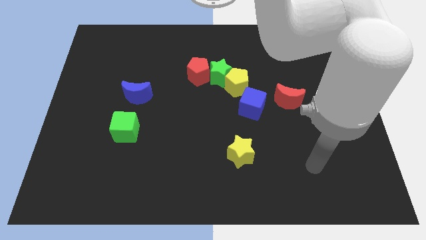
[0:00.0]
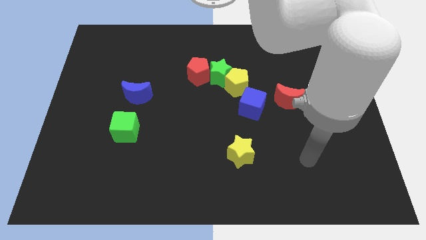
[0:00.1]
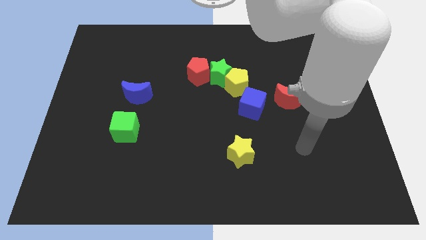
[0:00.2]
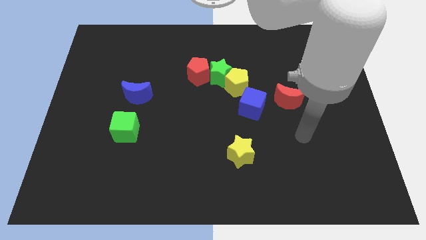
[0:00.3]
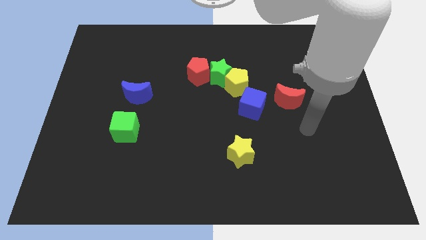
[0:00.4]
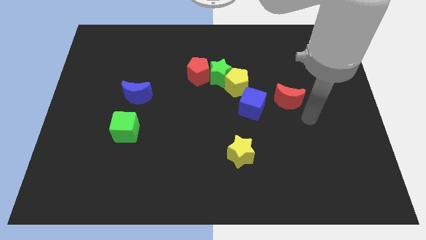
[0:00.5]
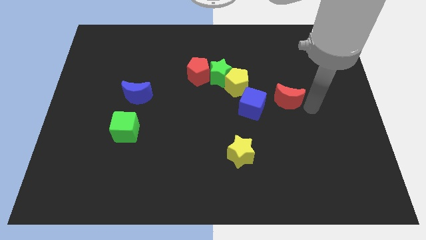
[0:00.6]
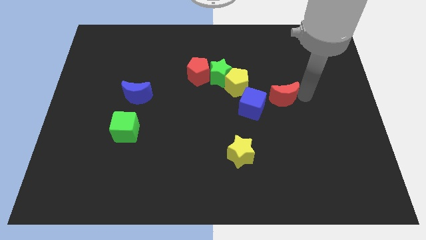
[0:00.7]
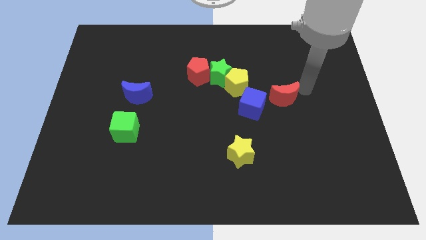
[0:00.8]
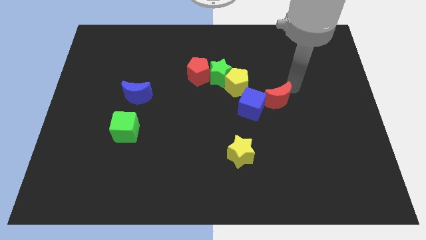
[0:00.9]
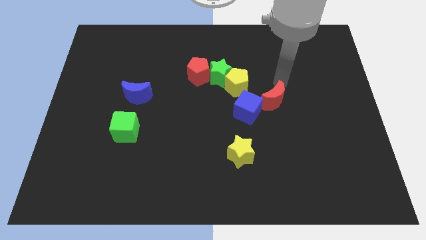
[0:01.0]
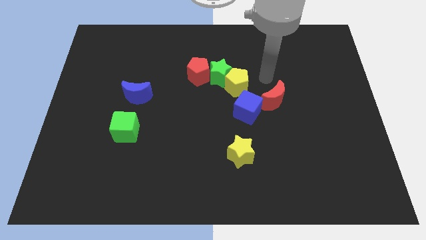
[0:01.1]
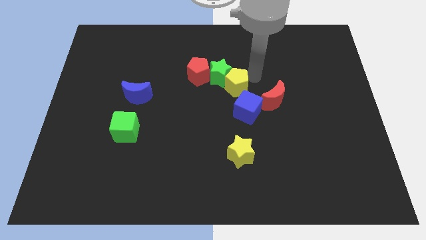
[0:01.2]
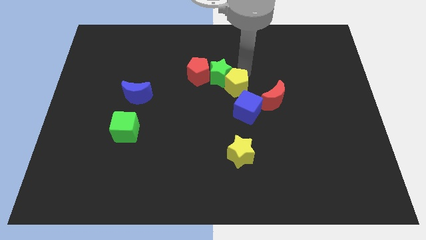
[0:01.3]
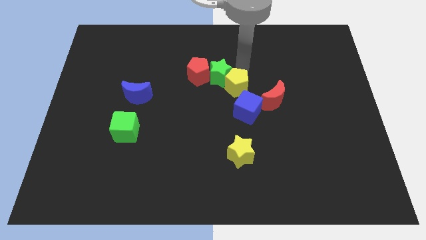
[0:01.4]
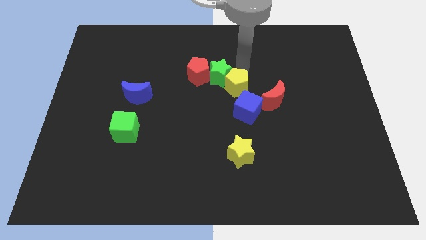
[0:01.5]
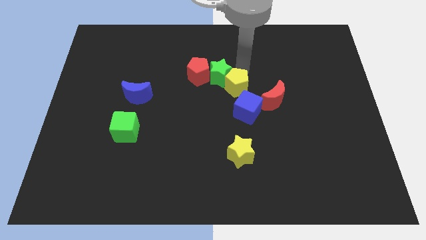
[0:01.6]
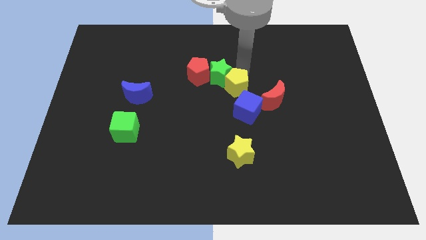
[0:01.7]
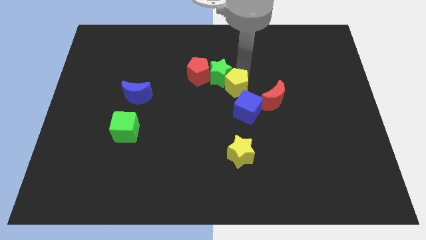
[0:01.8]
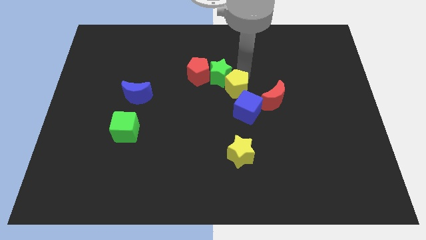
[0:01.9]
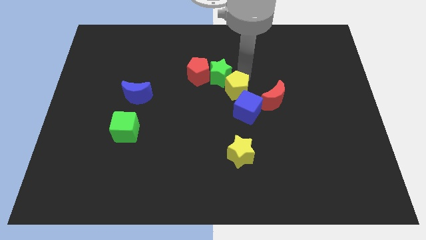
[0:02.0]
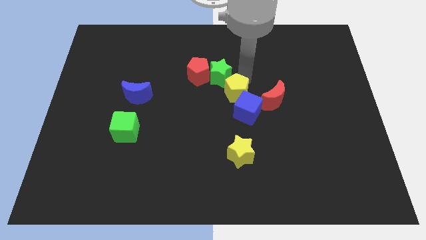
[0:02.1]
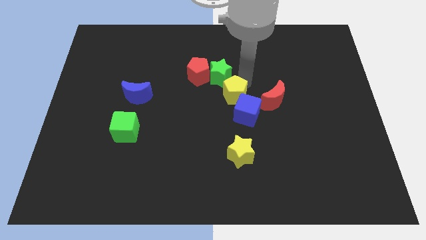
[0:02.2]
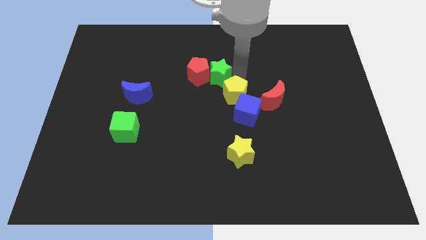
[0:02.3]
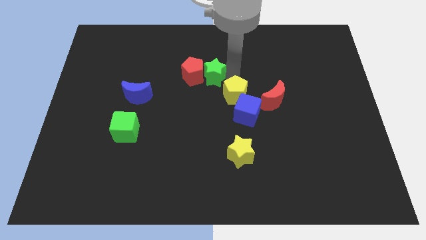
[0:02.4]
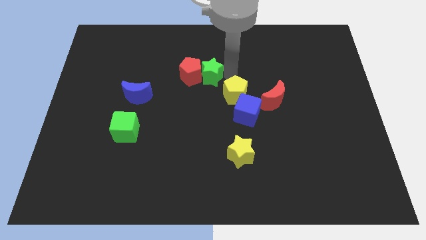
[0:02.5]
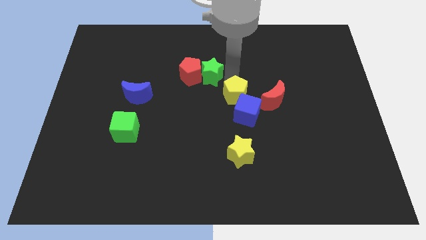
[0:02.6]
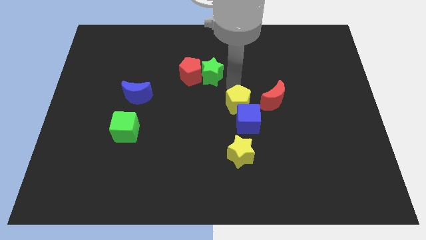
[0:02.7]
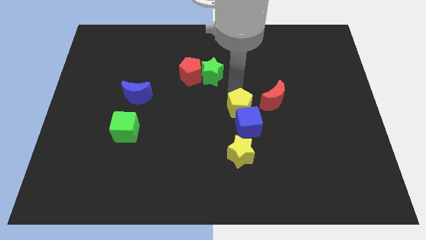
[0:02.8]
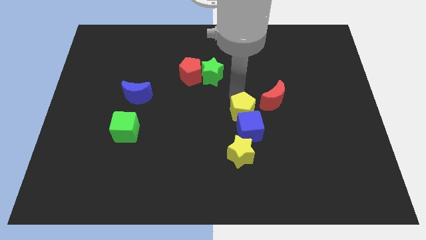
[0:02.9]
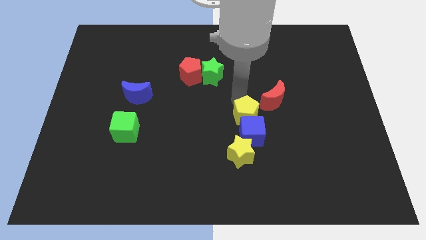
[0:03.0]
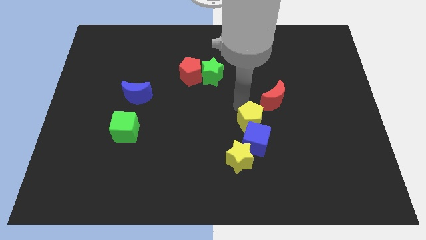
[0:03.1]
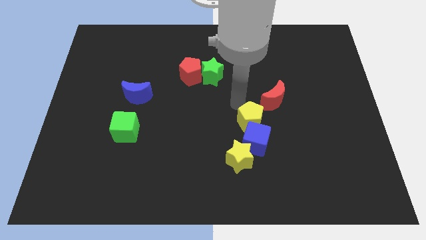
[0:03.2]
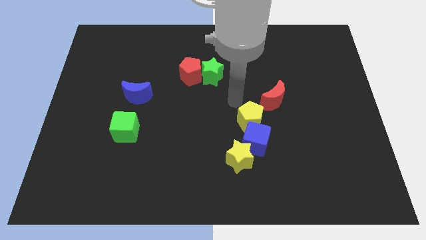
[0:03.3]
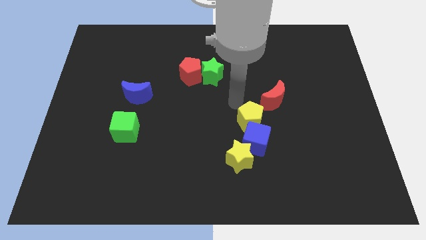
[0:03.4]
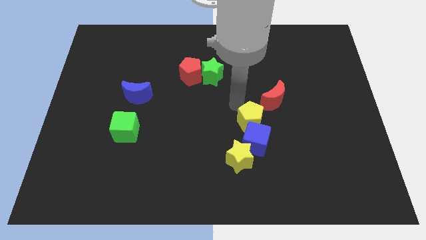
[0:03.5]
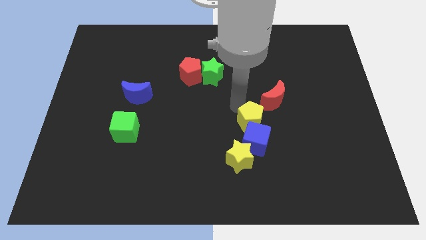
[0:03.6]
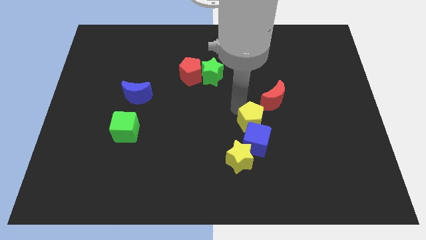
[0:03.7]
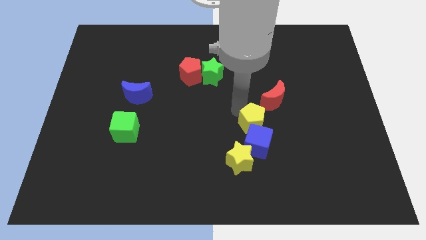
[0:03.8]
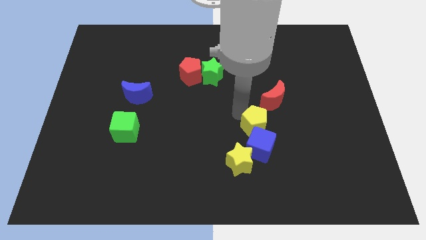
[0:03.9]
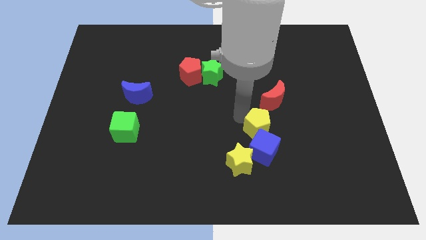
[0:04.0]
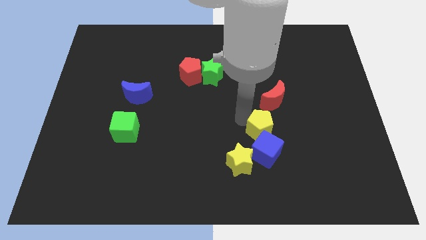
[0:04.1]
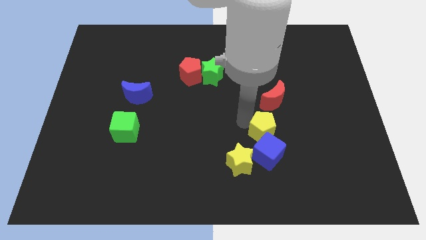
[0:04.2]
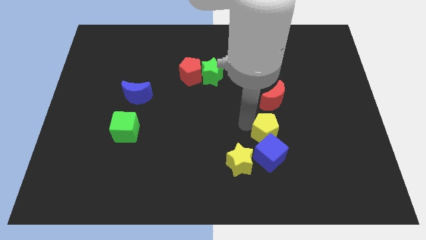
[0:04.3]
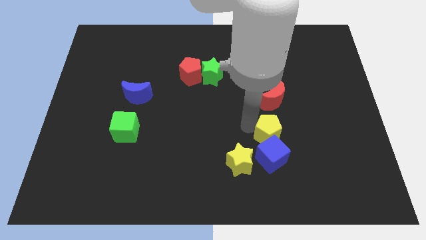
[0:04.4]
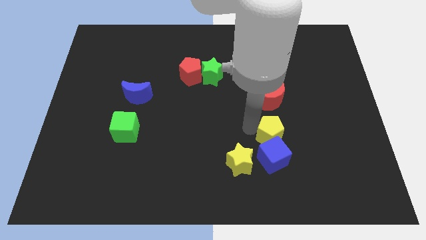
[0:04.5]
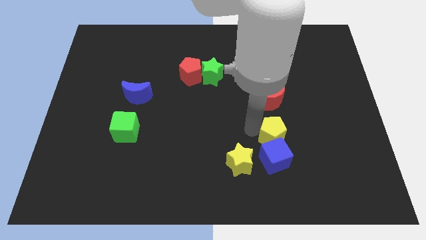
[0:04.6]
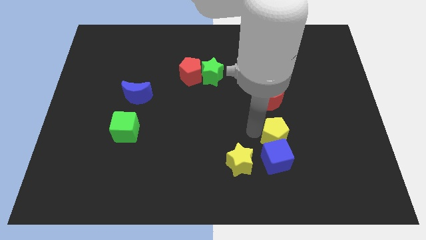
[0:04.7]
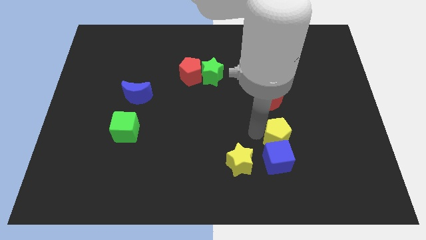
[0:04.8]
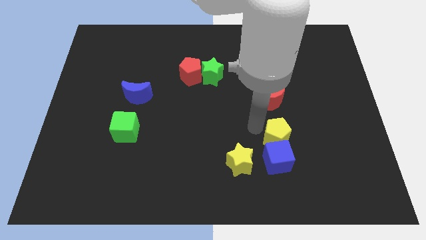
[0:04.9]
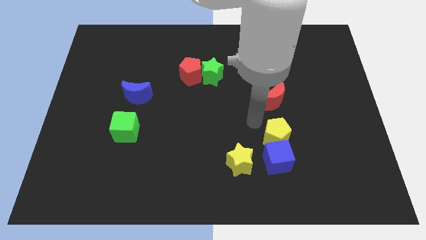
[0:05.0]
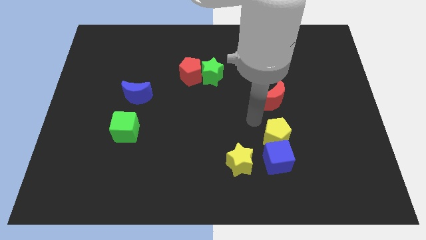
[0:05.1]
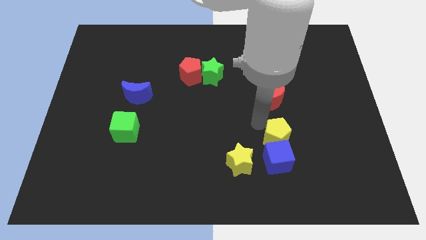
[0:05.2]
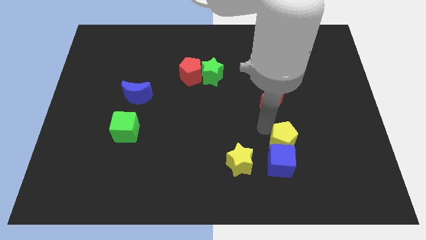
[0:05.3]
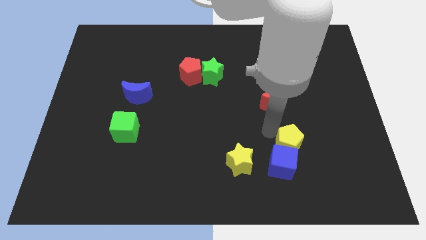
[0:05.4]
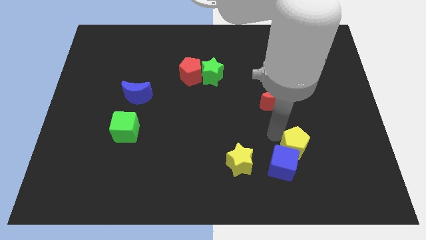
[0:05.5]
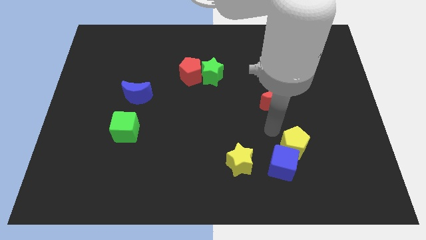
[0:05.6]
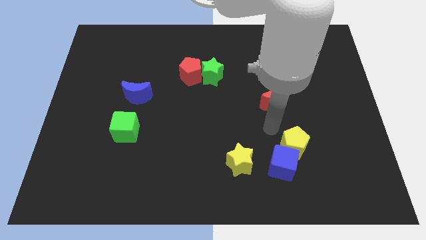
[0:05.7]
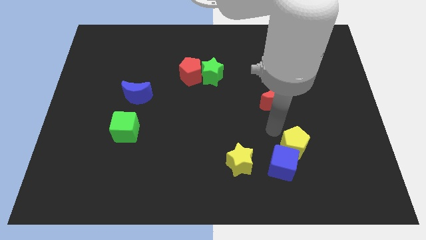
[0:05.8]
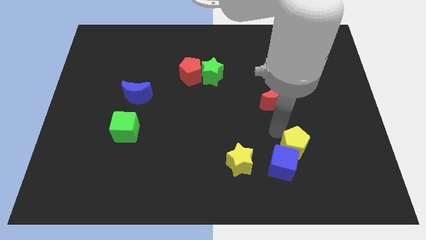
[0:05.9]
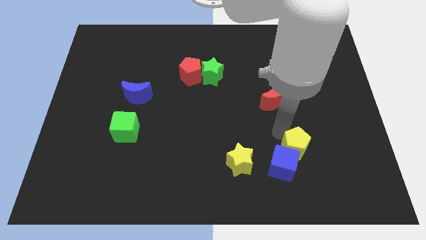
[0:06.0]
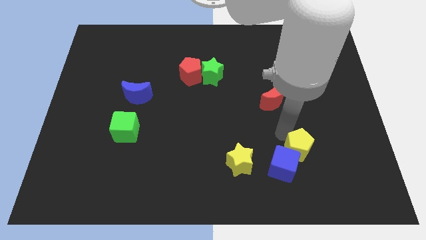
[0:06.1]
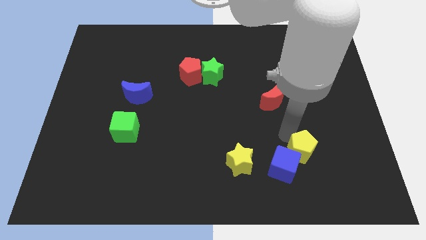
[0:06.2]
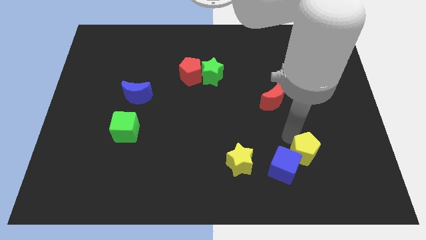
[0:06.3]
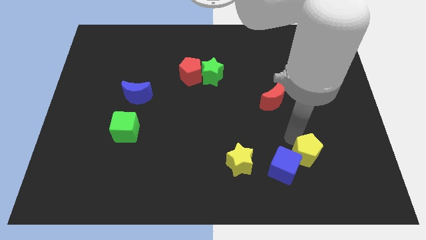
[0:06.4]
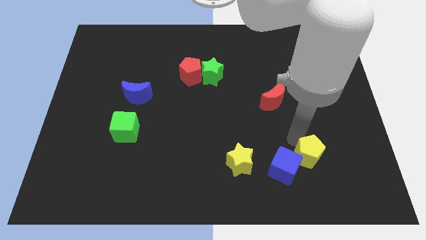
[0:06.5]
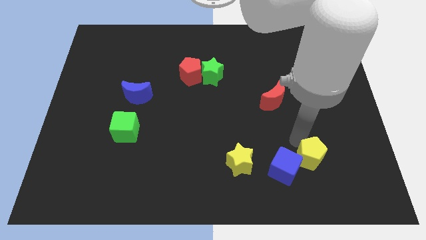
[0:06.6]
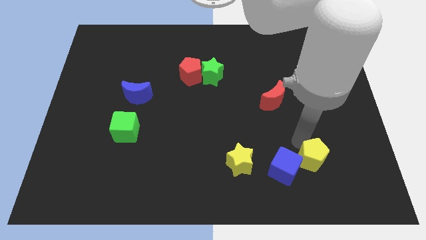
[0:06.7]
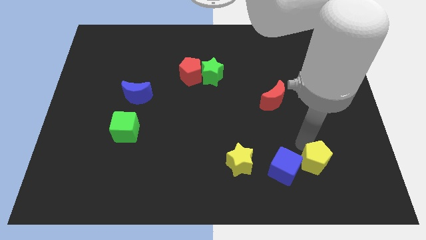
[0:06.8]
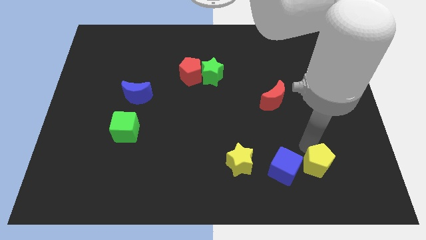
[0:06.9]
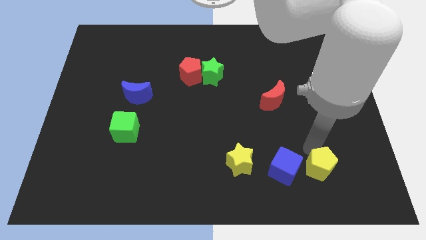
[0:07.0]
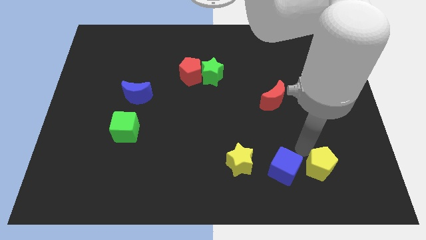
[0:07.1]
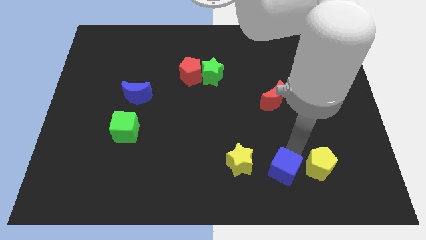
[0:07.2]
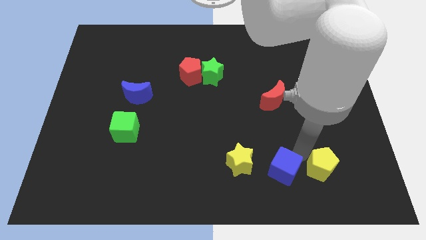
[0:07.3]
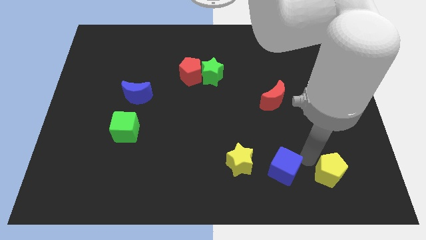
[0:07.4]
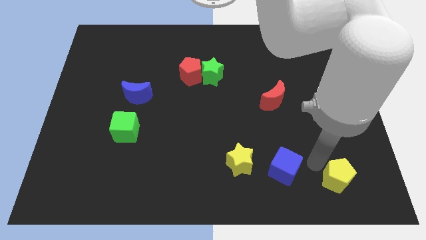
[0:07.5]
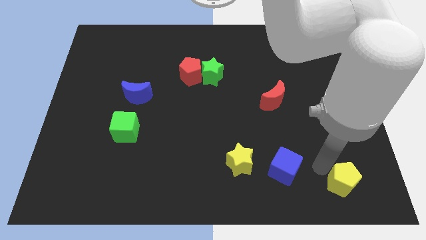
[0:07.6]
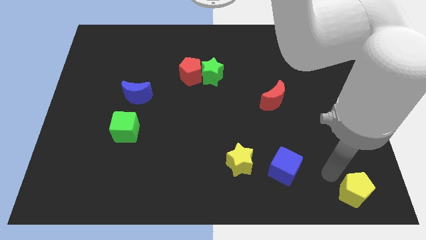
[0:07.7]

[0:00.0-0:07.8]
put the yellow pentagon to the bottom right of the board
